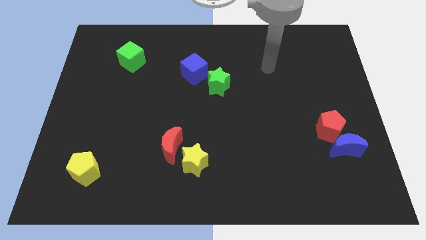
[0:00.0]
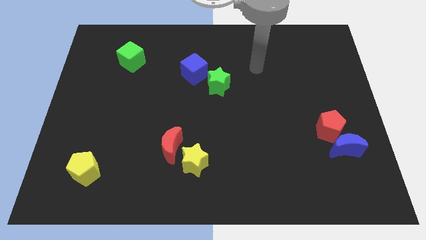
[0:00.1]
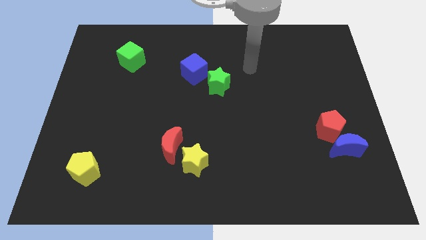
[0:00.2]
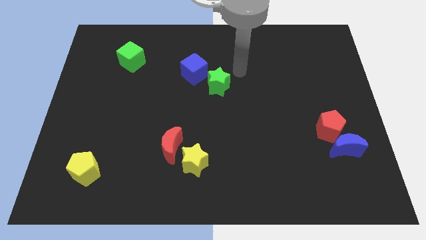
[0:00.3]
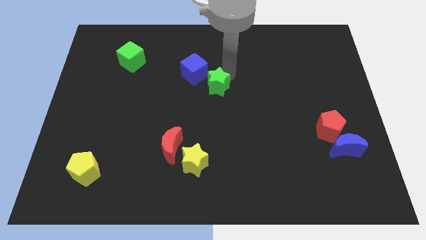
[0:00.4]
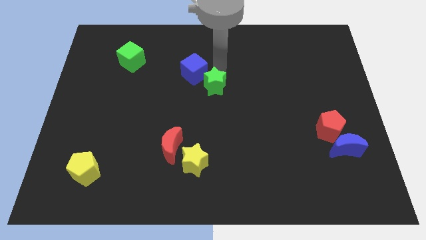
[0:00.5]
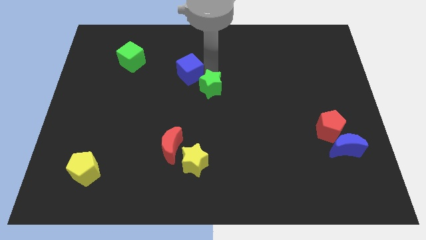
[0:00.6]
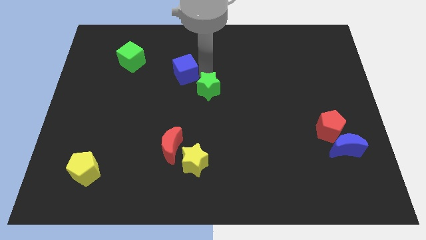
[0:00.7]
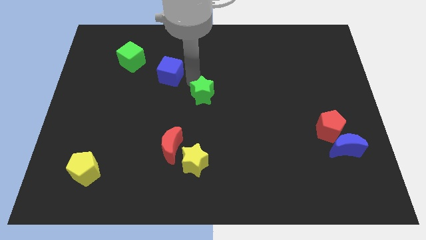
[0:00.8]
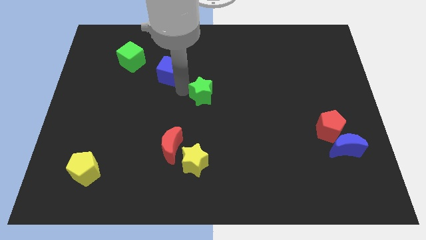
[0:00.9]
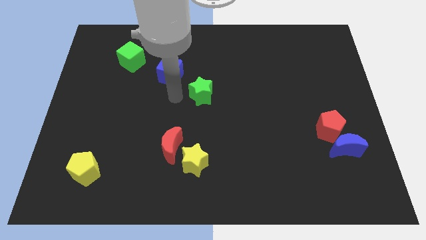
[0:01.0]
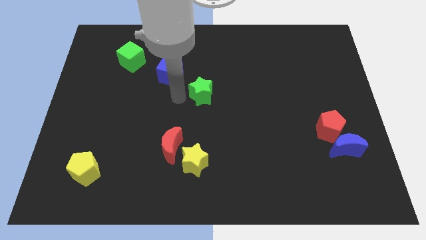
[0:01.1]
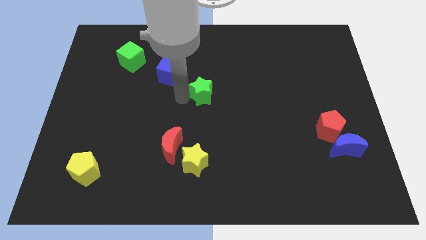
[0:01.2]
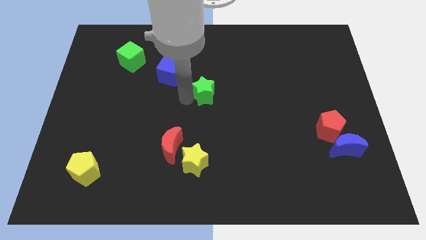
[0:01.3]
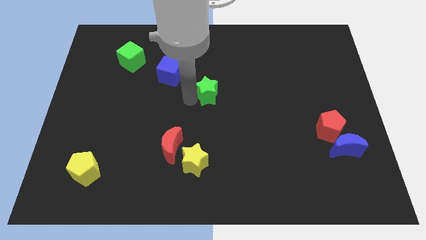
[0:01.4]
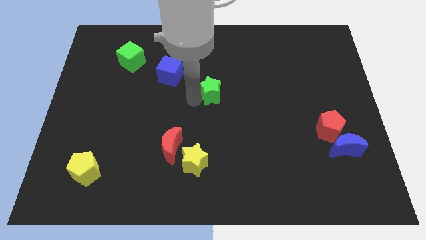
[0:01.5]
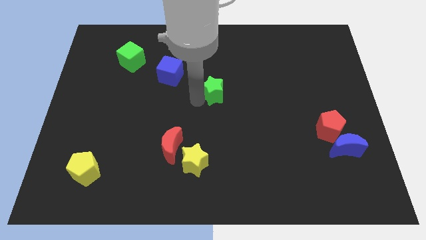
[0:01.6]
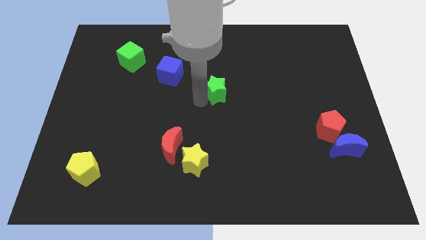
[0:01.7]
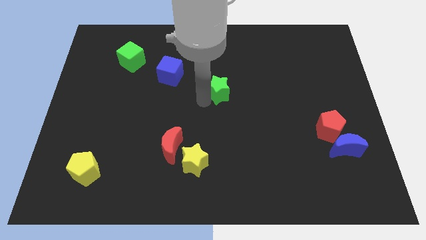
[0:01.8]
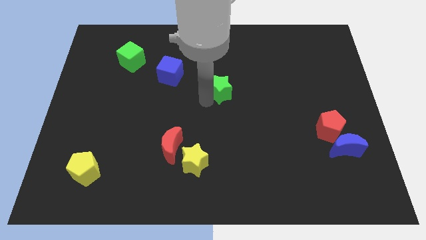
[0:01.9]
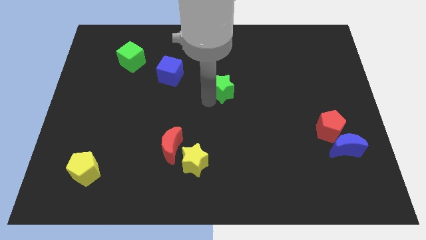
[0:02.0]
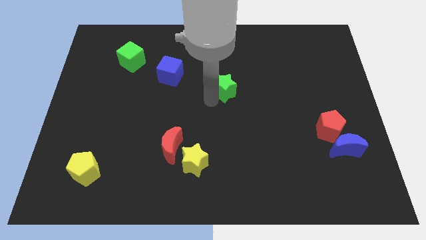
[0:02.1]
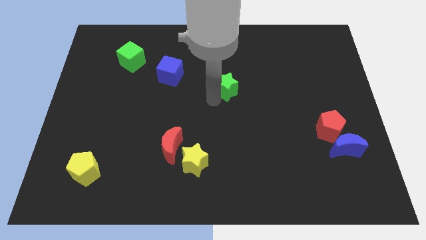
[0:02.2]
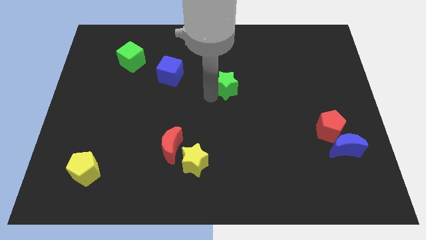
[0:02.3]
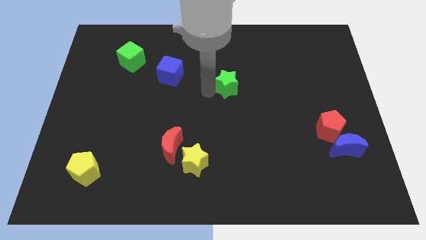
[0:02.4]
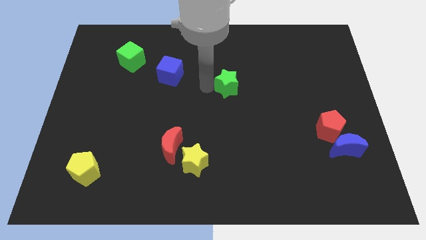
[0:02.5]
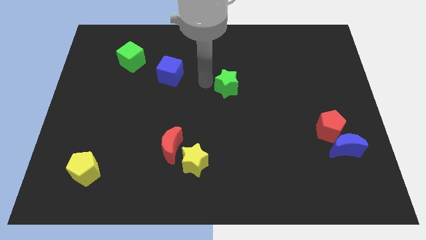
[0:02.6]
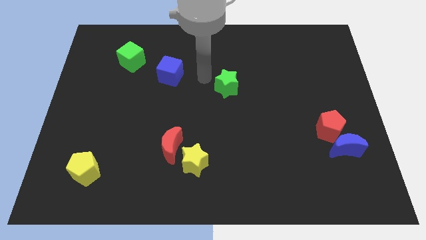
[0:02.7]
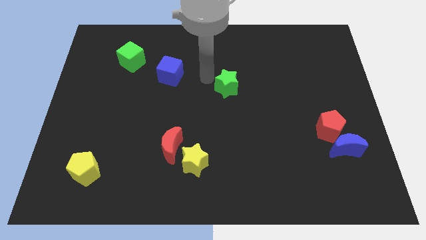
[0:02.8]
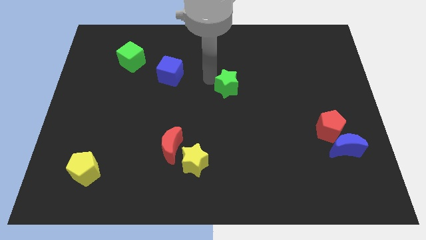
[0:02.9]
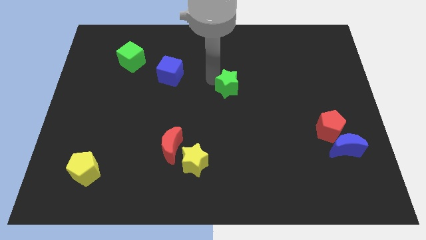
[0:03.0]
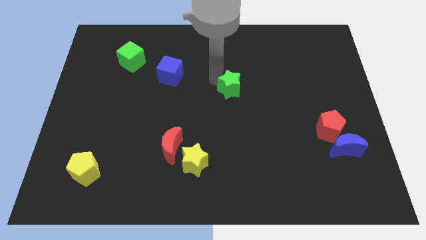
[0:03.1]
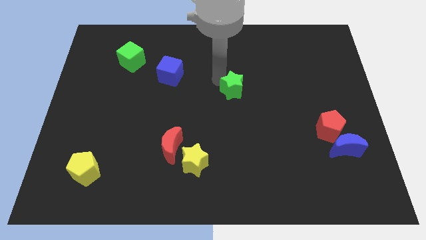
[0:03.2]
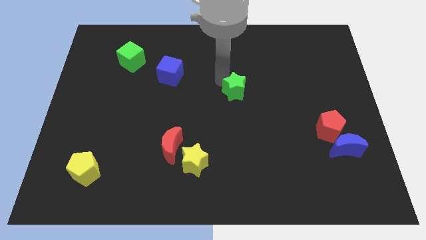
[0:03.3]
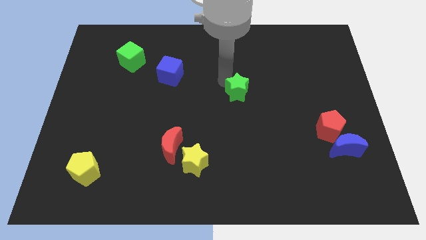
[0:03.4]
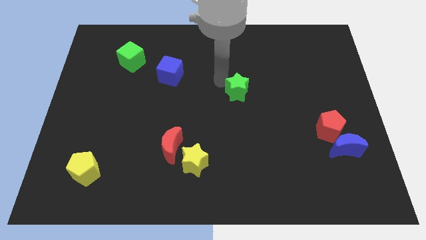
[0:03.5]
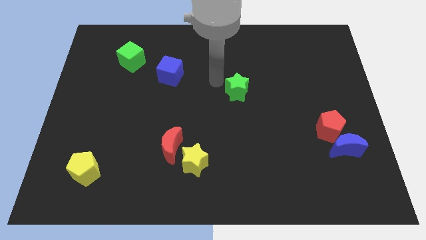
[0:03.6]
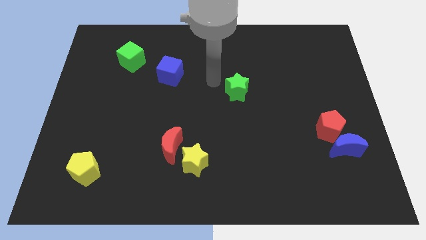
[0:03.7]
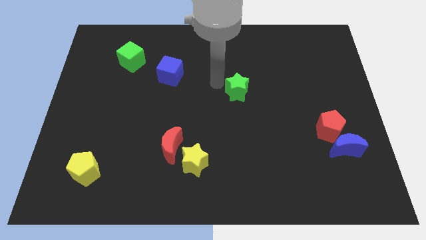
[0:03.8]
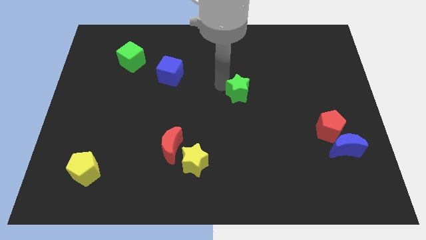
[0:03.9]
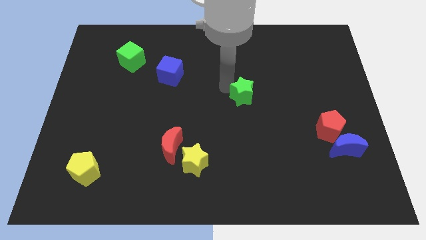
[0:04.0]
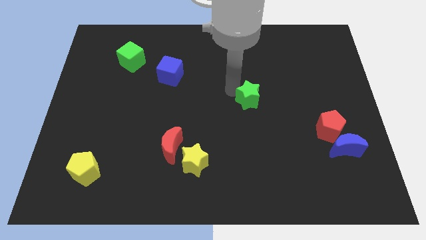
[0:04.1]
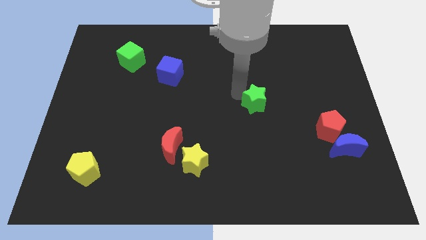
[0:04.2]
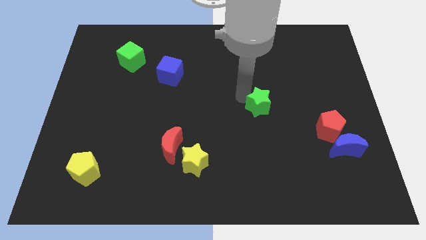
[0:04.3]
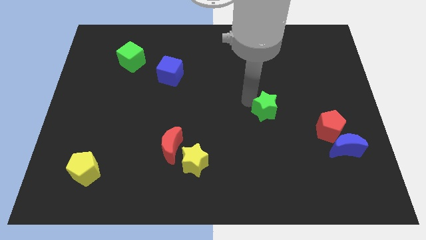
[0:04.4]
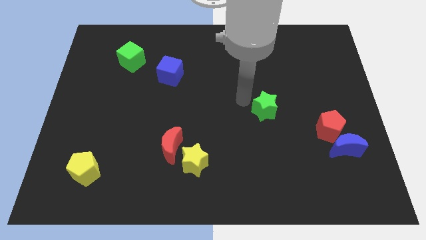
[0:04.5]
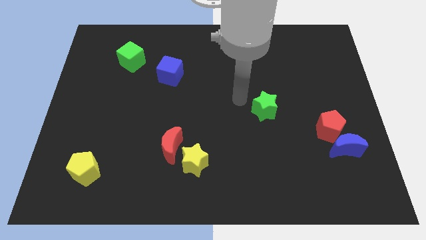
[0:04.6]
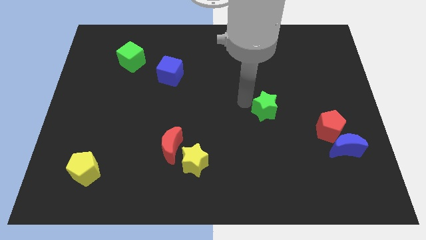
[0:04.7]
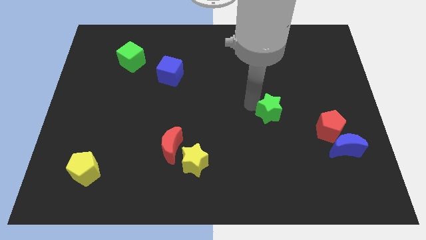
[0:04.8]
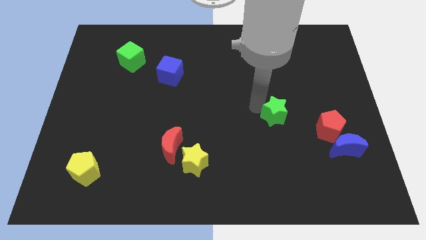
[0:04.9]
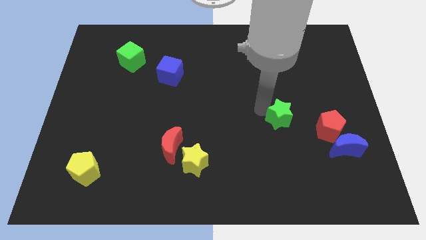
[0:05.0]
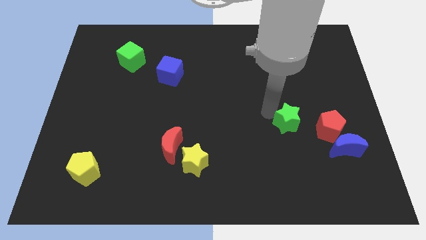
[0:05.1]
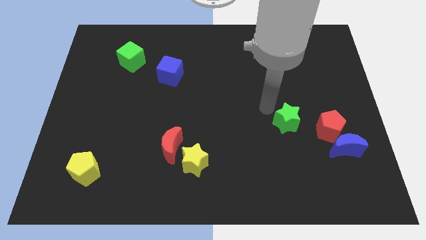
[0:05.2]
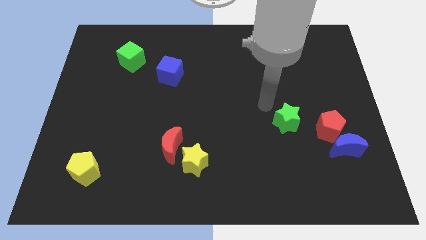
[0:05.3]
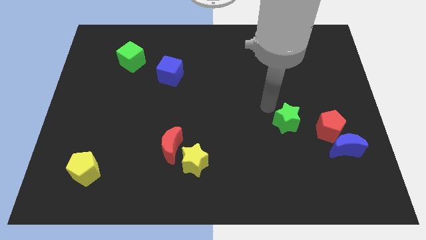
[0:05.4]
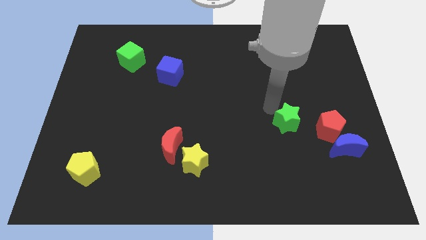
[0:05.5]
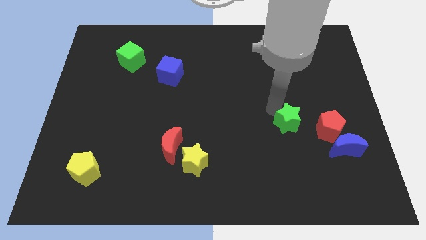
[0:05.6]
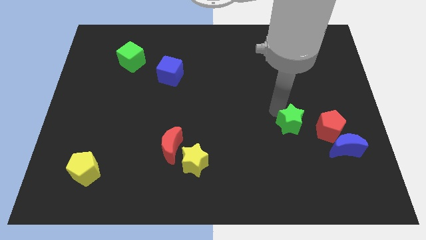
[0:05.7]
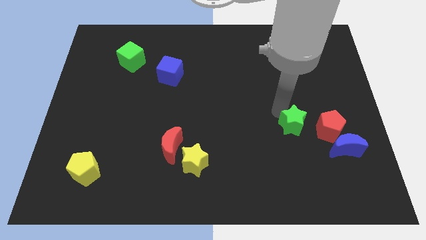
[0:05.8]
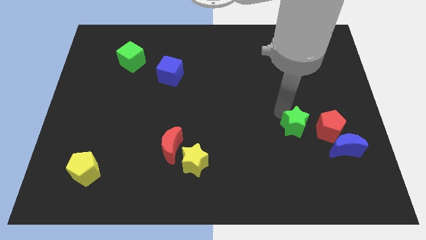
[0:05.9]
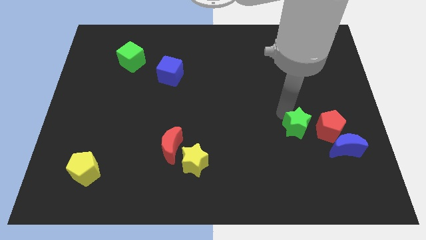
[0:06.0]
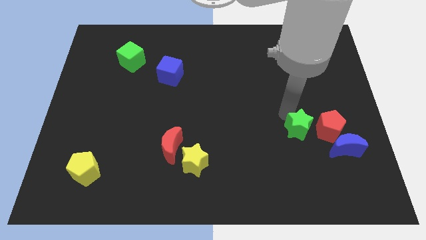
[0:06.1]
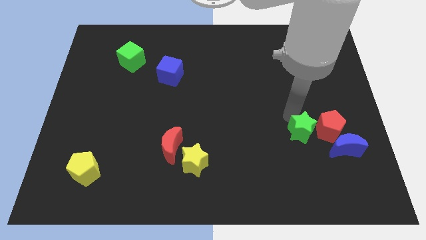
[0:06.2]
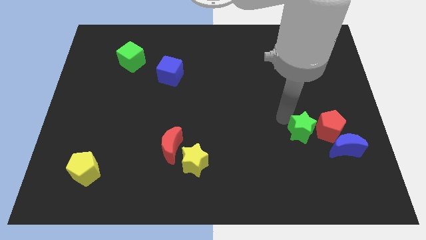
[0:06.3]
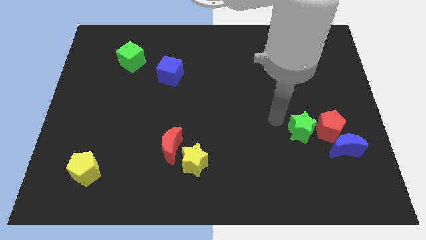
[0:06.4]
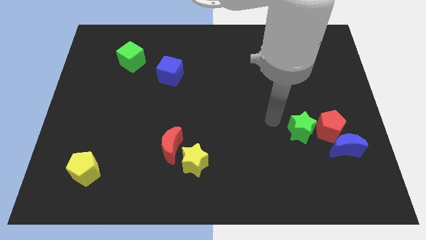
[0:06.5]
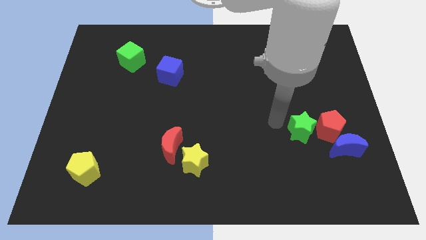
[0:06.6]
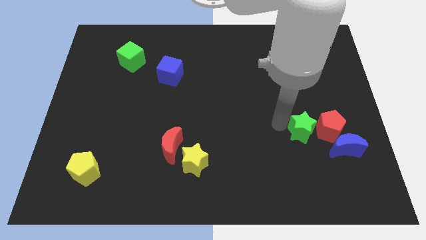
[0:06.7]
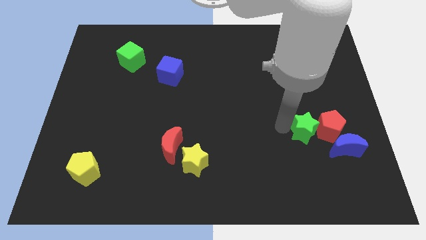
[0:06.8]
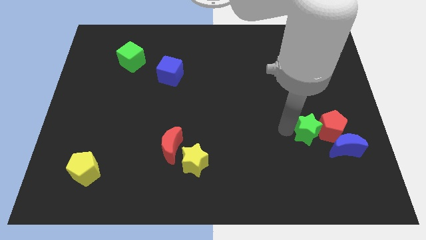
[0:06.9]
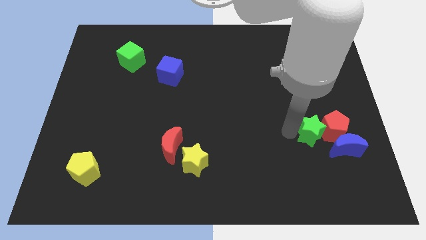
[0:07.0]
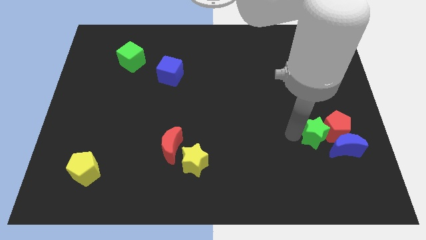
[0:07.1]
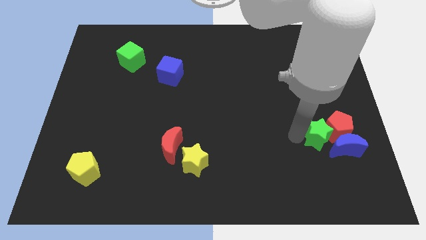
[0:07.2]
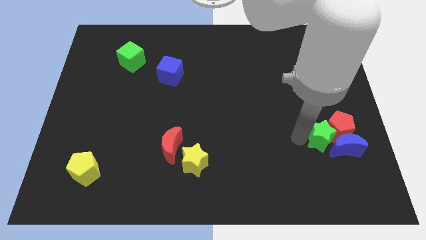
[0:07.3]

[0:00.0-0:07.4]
slide the green star to the blue moon
